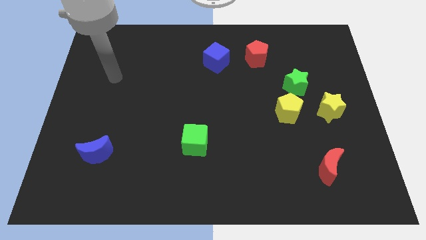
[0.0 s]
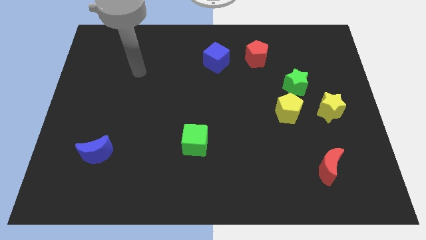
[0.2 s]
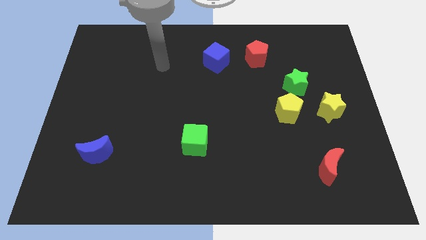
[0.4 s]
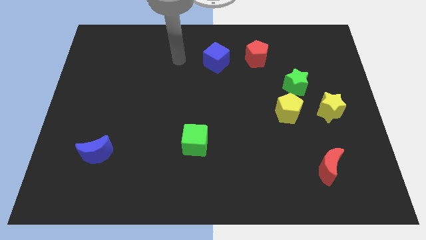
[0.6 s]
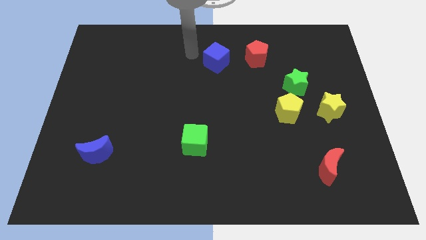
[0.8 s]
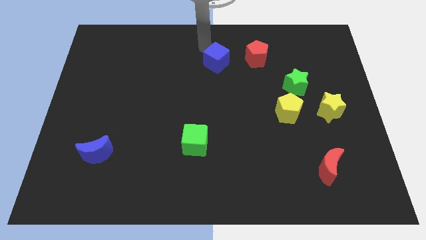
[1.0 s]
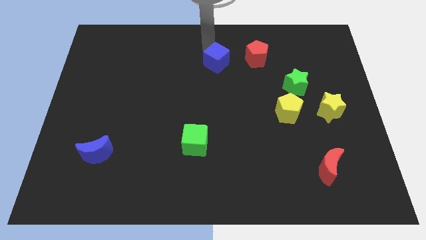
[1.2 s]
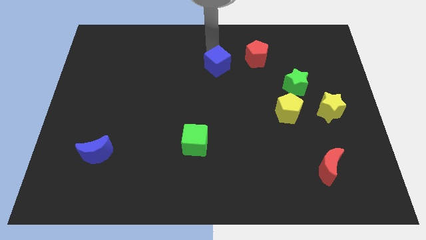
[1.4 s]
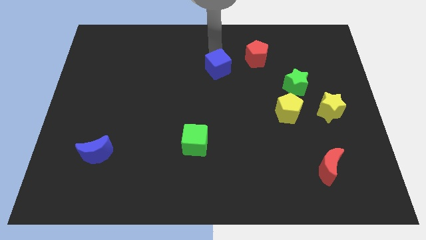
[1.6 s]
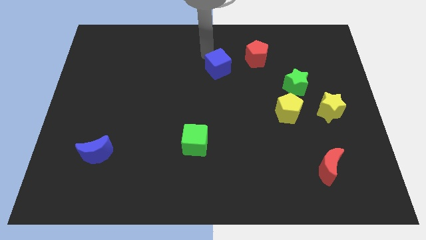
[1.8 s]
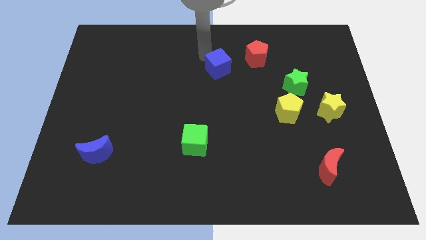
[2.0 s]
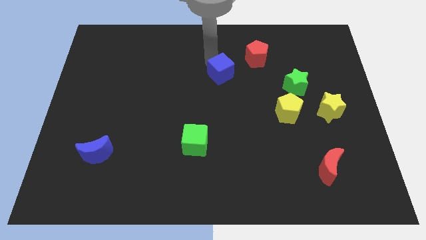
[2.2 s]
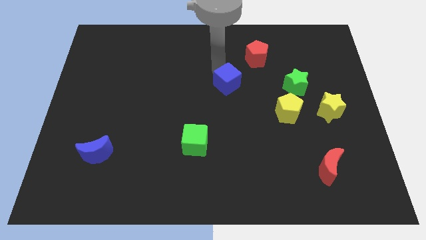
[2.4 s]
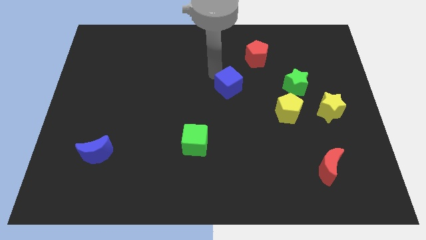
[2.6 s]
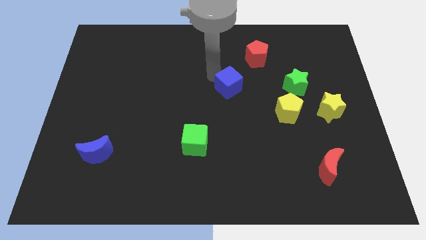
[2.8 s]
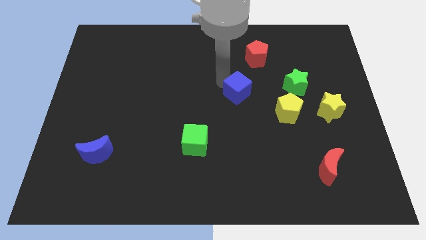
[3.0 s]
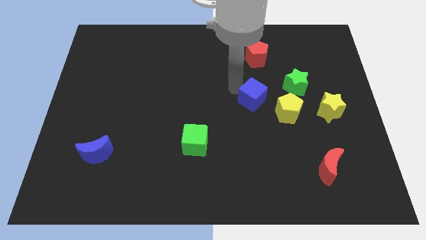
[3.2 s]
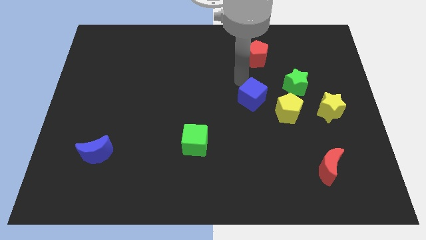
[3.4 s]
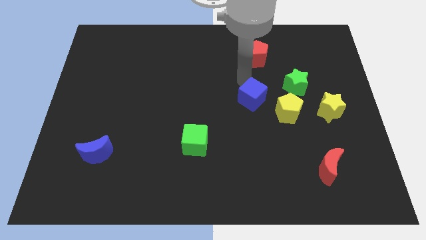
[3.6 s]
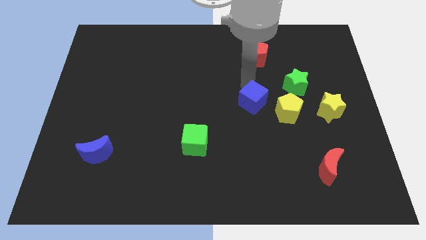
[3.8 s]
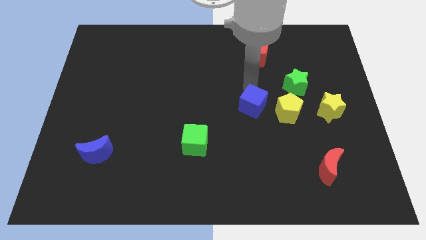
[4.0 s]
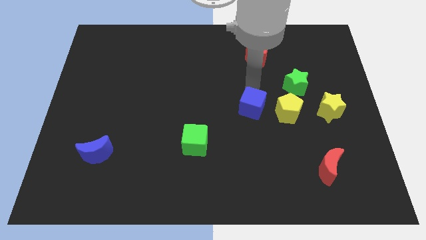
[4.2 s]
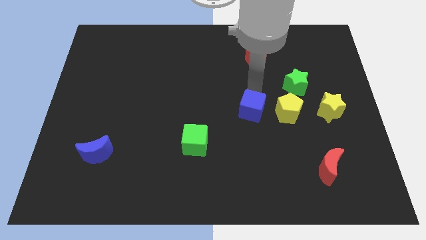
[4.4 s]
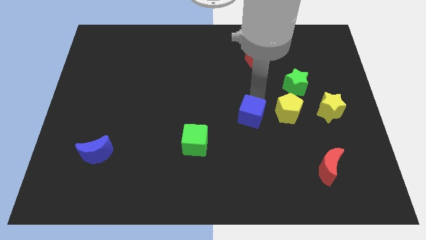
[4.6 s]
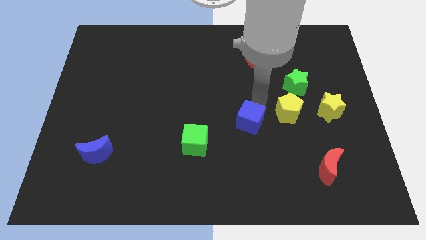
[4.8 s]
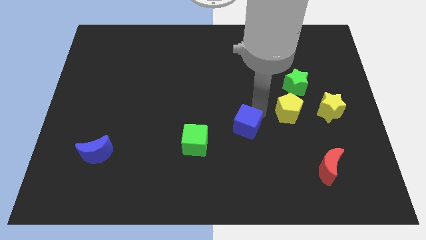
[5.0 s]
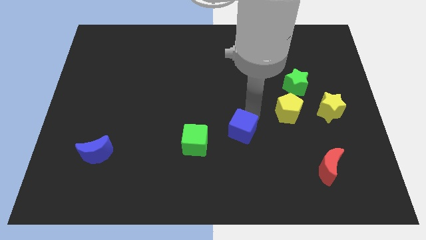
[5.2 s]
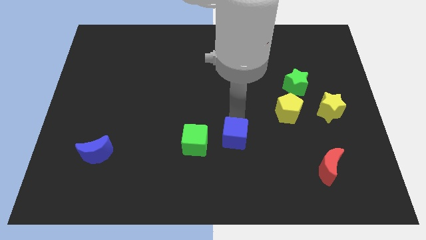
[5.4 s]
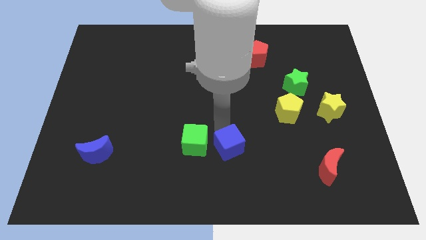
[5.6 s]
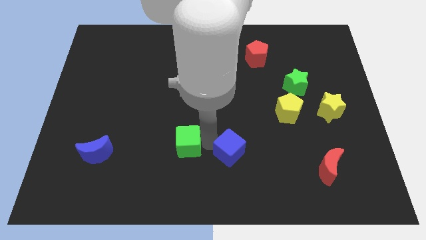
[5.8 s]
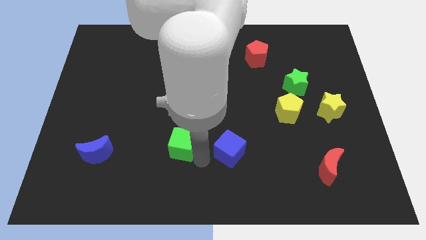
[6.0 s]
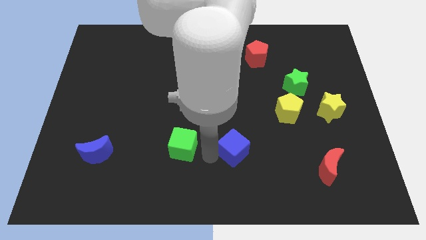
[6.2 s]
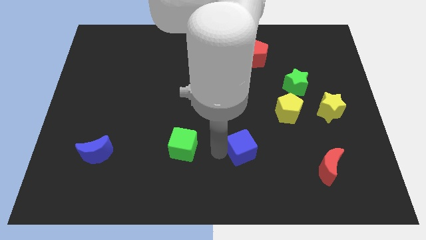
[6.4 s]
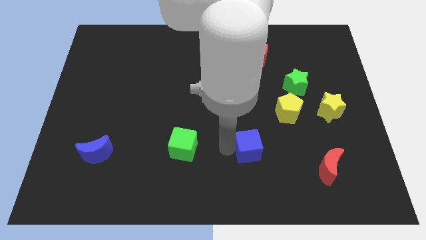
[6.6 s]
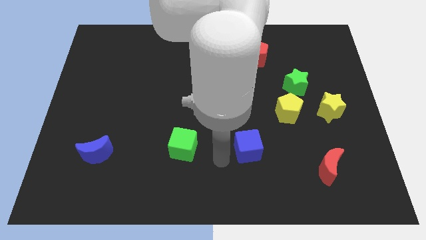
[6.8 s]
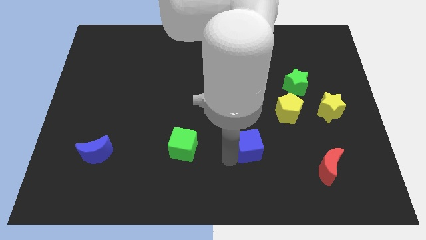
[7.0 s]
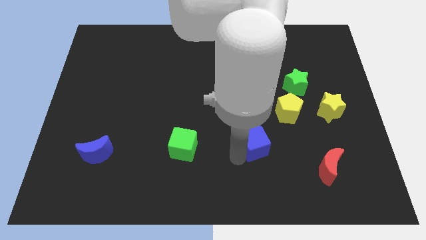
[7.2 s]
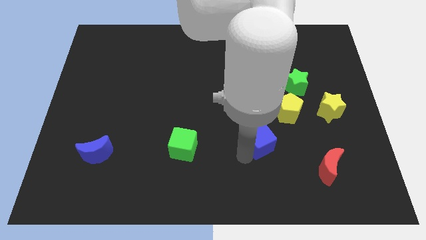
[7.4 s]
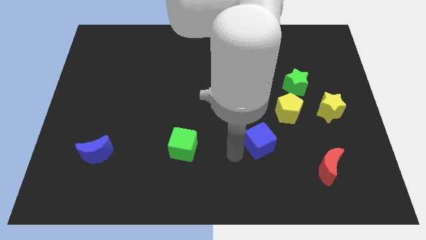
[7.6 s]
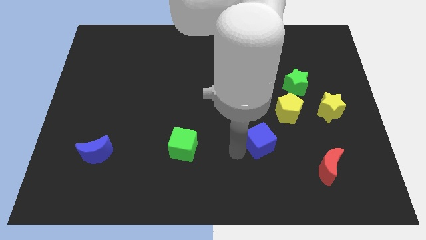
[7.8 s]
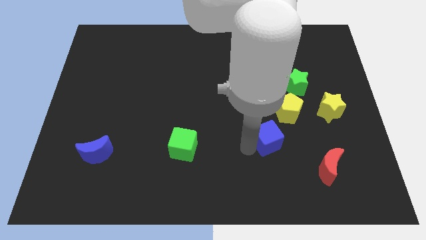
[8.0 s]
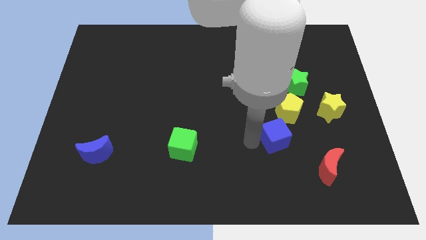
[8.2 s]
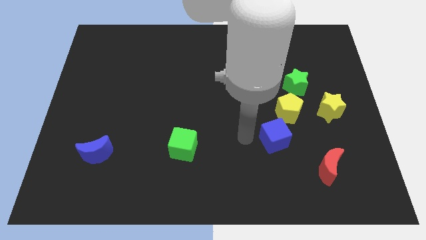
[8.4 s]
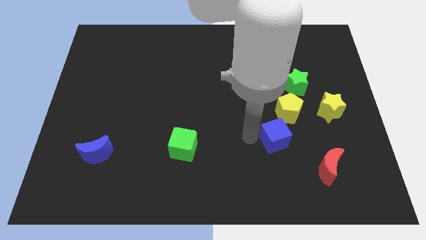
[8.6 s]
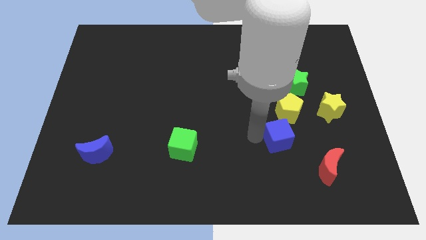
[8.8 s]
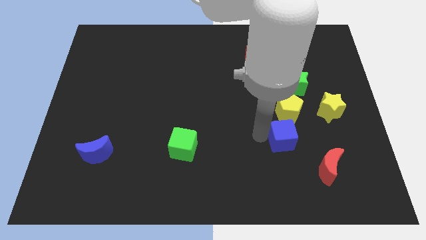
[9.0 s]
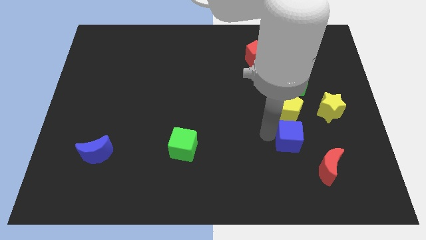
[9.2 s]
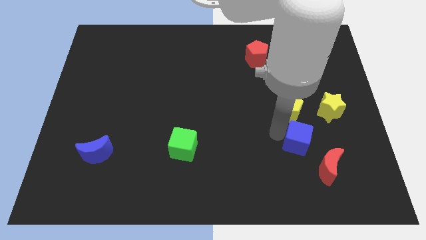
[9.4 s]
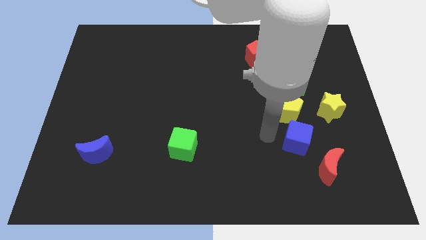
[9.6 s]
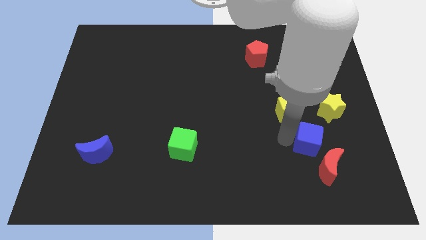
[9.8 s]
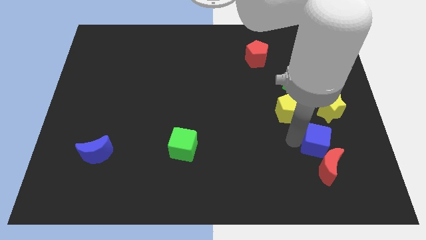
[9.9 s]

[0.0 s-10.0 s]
move the blue cube below the yellow star

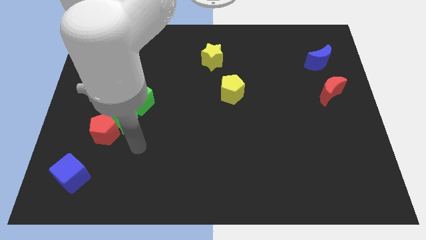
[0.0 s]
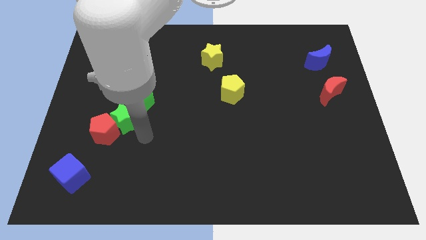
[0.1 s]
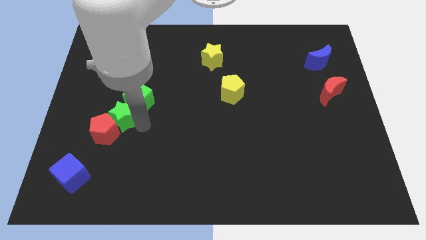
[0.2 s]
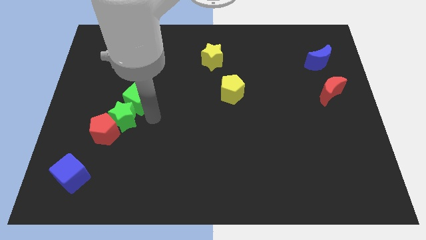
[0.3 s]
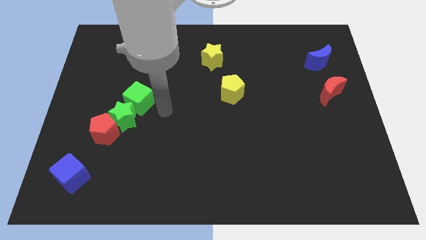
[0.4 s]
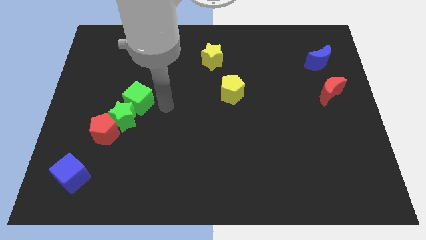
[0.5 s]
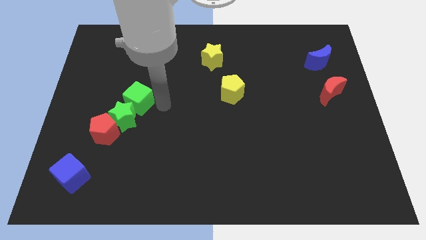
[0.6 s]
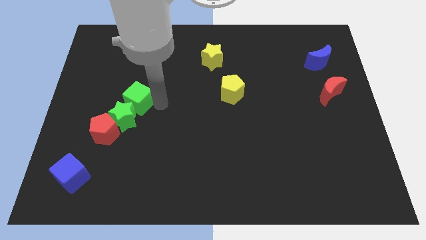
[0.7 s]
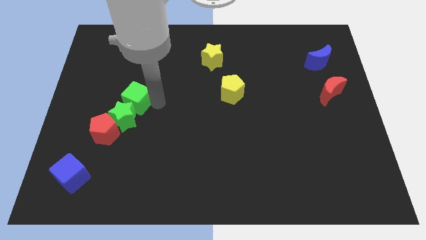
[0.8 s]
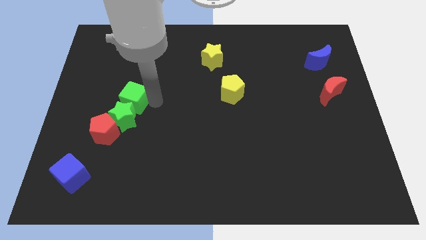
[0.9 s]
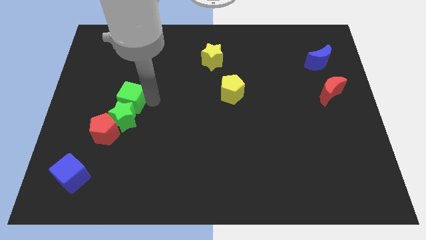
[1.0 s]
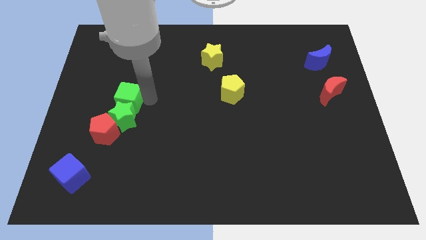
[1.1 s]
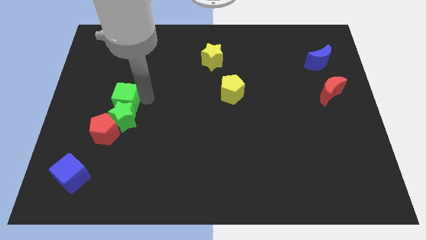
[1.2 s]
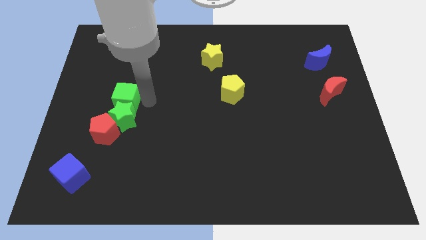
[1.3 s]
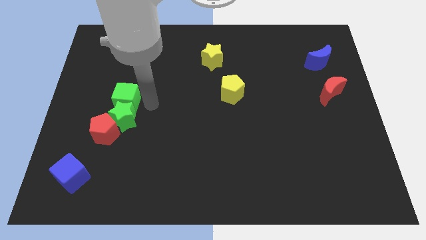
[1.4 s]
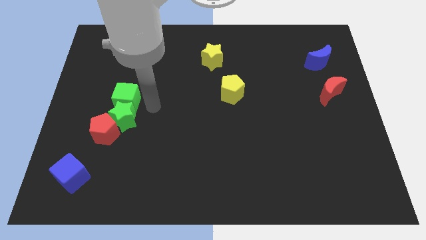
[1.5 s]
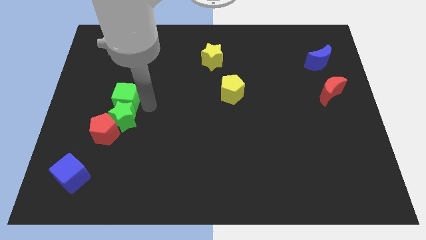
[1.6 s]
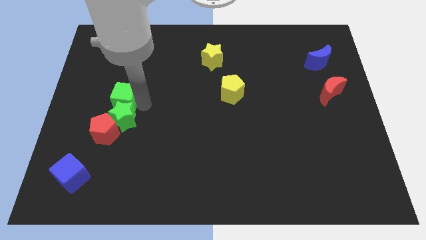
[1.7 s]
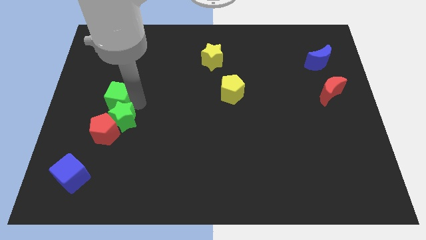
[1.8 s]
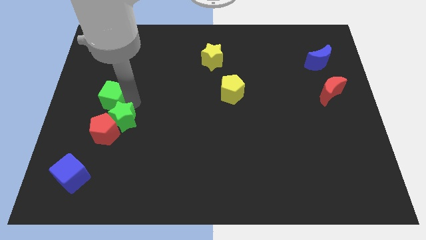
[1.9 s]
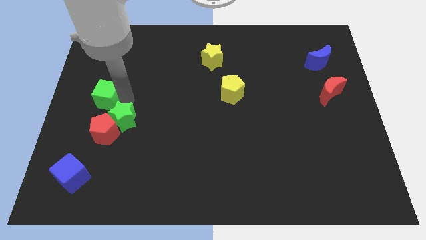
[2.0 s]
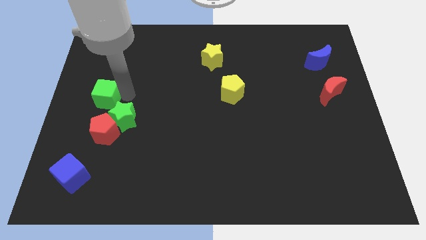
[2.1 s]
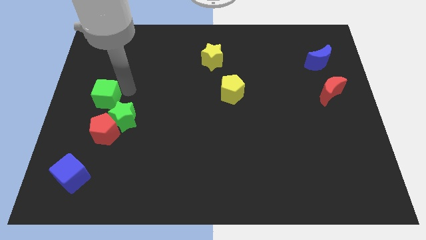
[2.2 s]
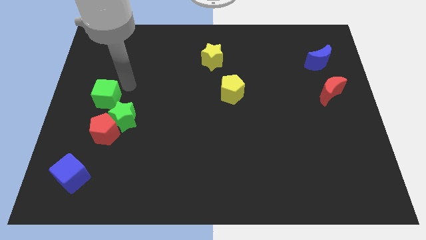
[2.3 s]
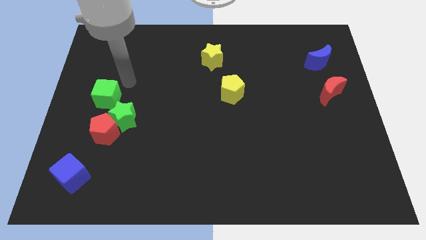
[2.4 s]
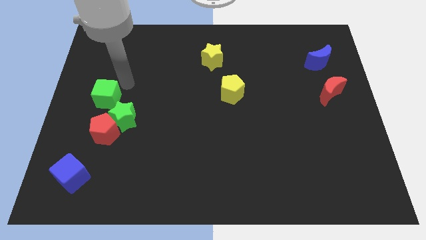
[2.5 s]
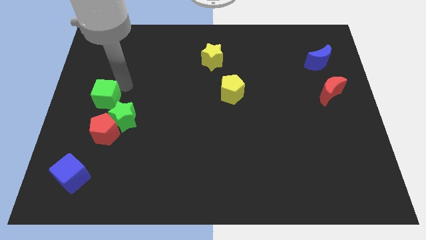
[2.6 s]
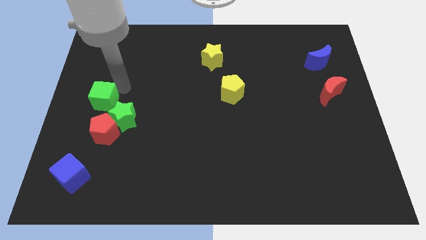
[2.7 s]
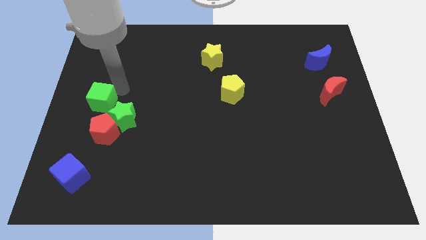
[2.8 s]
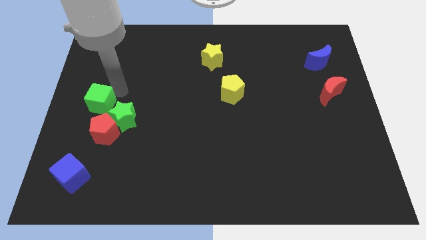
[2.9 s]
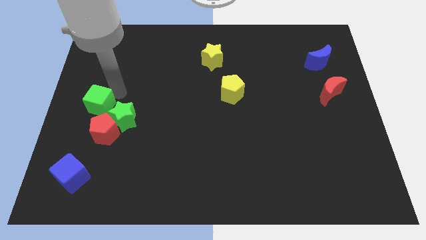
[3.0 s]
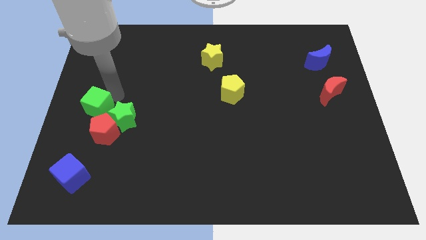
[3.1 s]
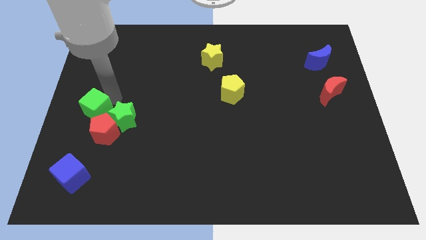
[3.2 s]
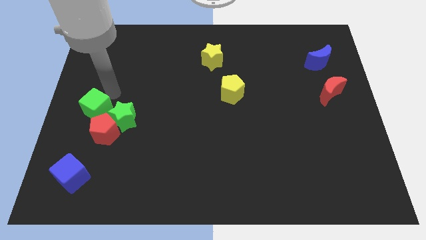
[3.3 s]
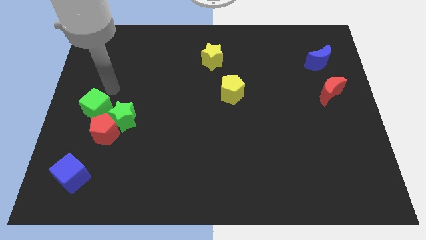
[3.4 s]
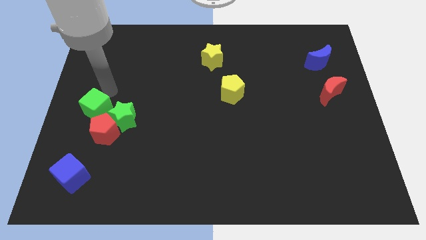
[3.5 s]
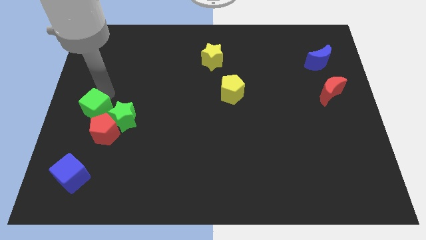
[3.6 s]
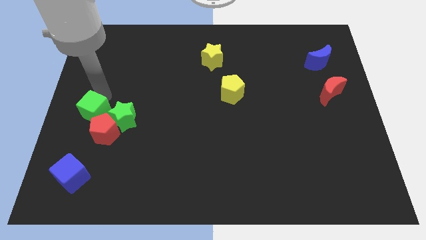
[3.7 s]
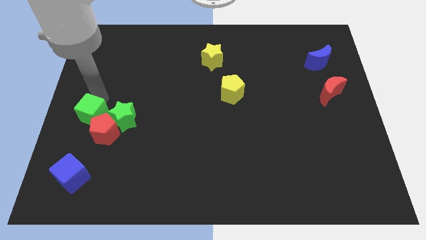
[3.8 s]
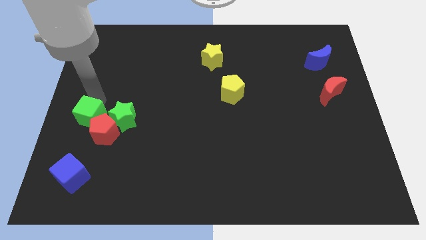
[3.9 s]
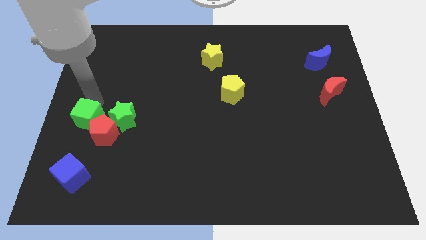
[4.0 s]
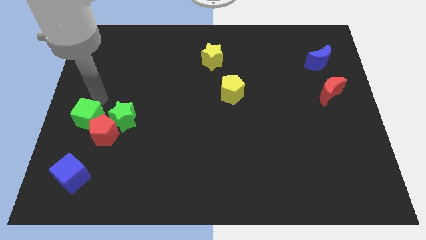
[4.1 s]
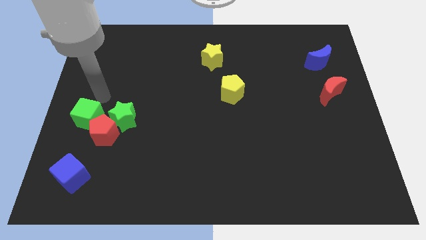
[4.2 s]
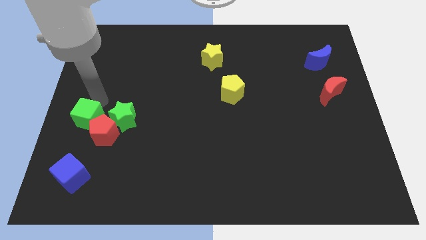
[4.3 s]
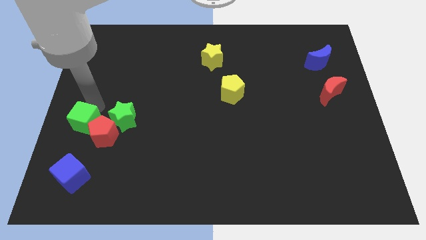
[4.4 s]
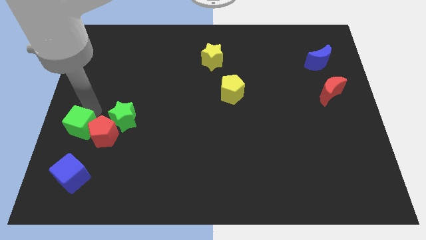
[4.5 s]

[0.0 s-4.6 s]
slide the green cube diagonally down and to the left of the green star
